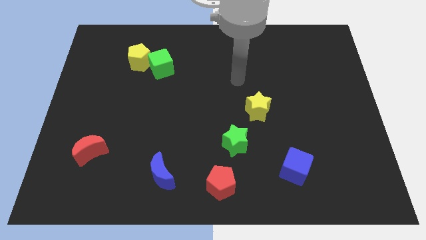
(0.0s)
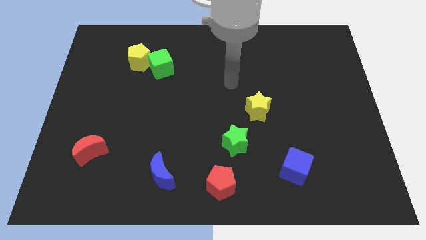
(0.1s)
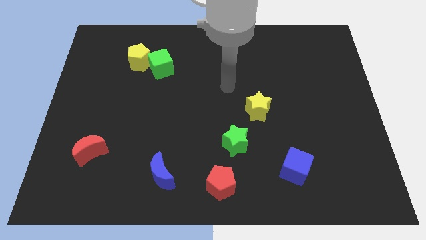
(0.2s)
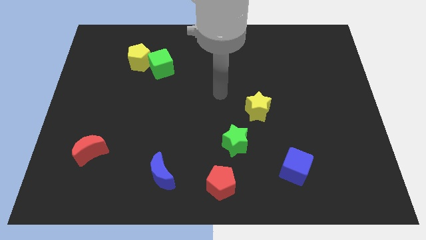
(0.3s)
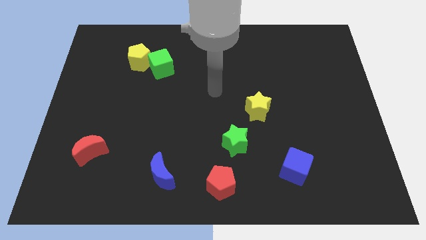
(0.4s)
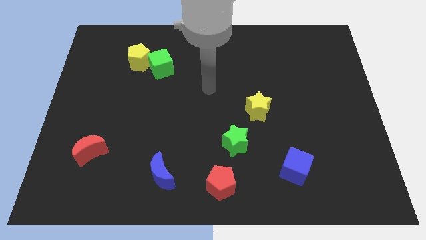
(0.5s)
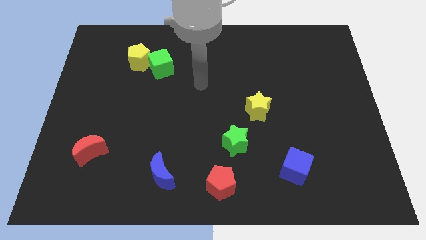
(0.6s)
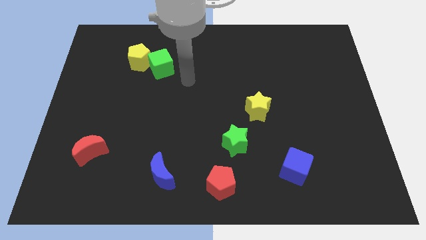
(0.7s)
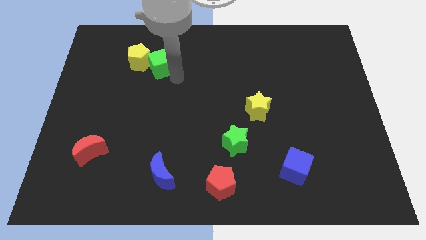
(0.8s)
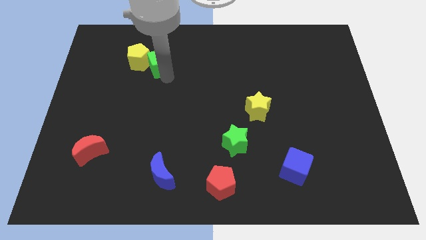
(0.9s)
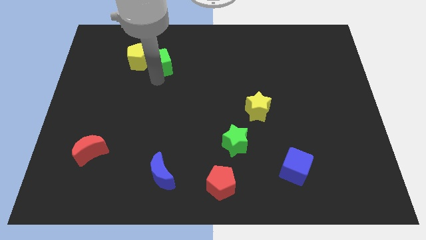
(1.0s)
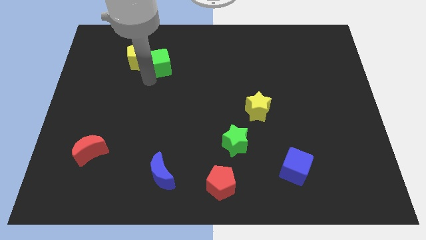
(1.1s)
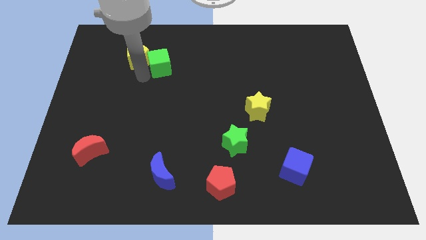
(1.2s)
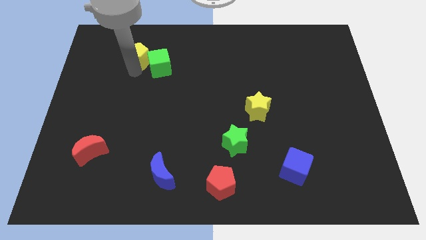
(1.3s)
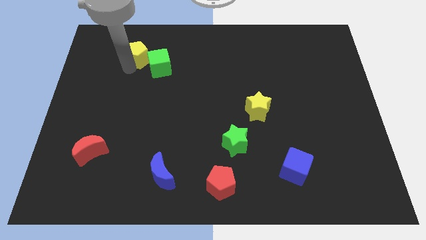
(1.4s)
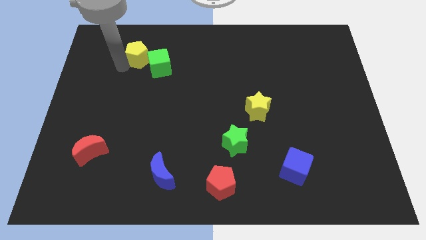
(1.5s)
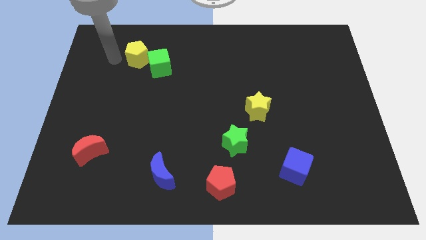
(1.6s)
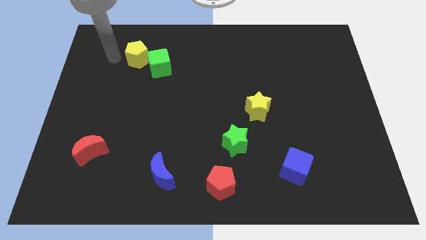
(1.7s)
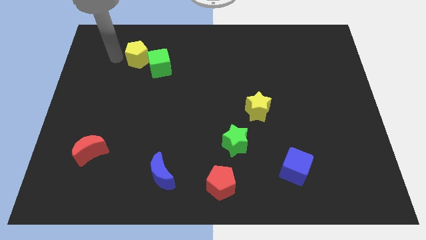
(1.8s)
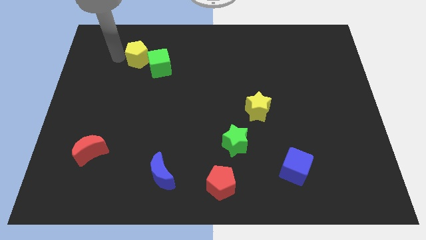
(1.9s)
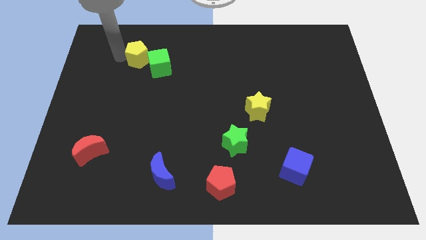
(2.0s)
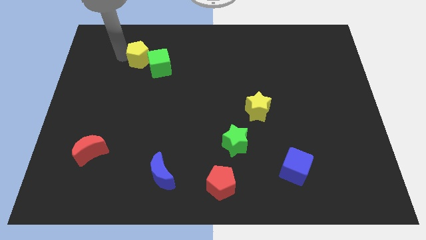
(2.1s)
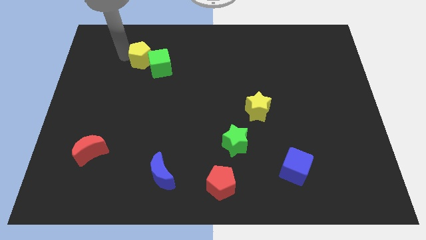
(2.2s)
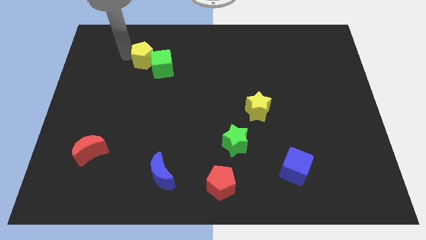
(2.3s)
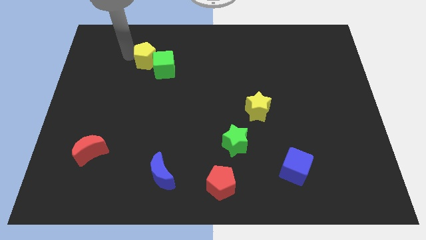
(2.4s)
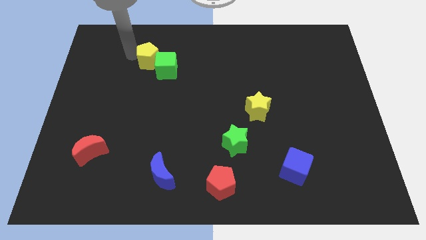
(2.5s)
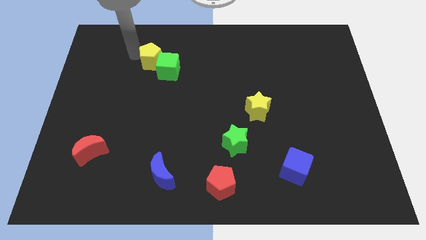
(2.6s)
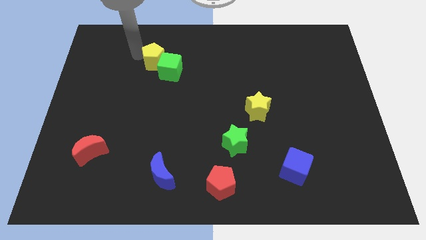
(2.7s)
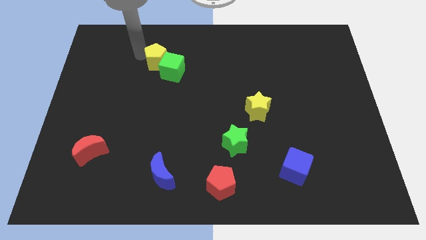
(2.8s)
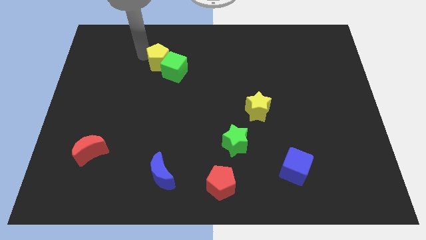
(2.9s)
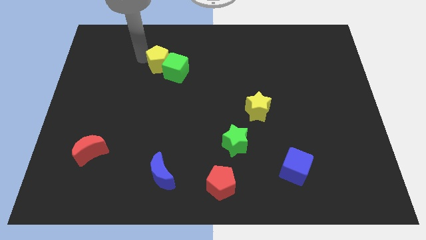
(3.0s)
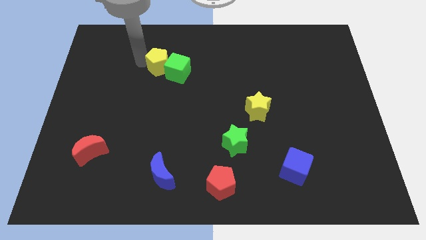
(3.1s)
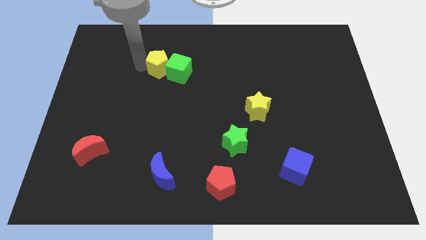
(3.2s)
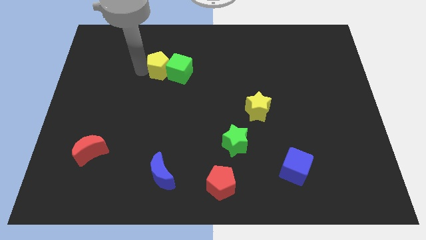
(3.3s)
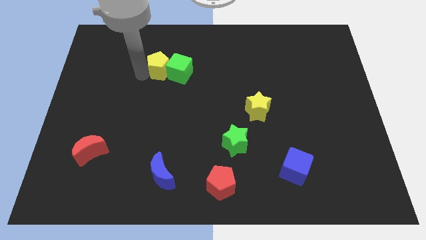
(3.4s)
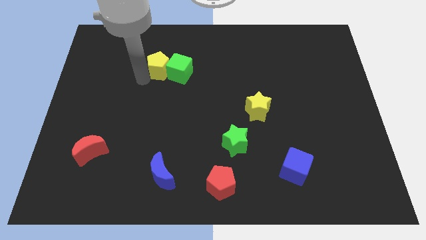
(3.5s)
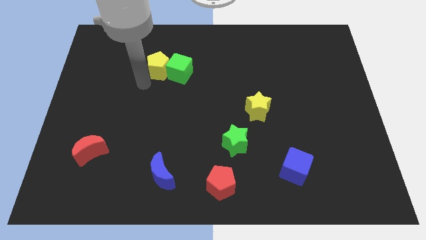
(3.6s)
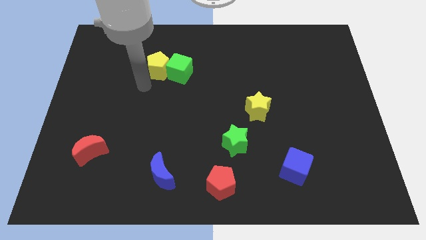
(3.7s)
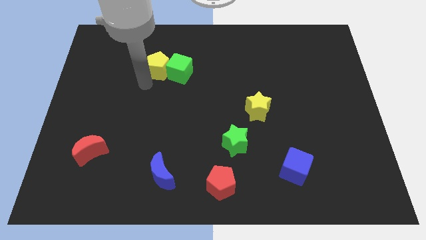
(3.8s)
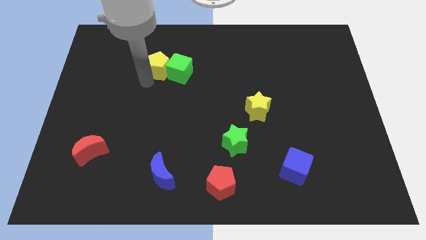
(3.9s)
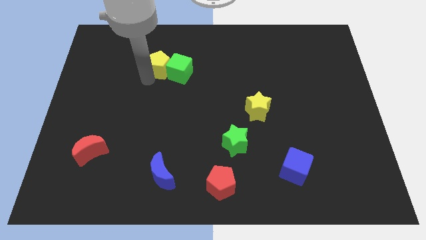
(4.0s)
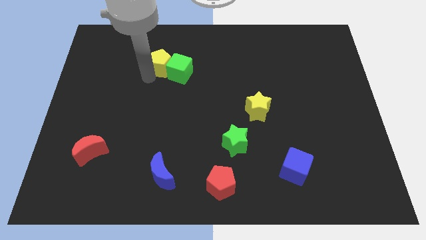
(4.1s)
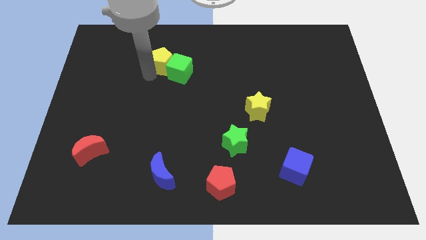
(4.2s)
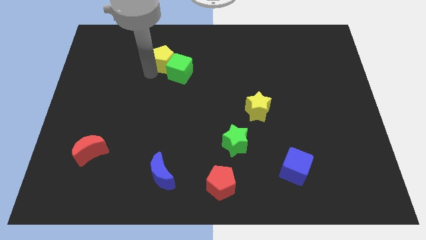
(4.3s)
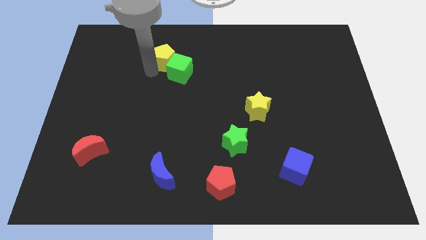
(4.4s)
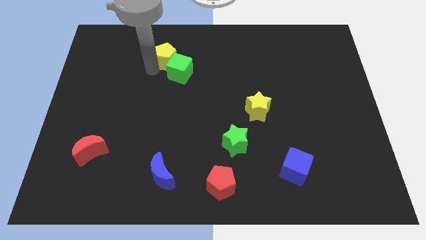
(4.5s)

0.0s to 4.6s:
move the yellow pentagon a little to the right

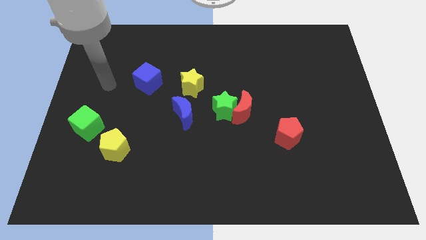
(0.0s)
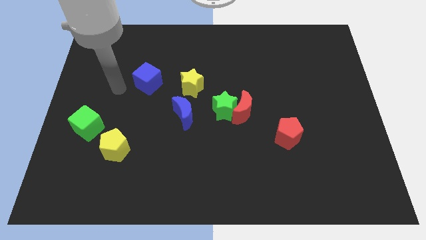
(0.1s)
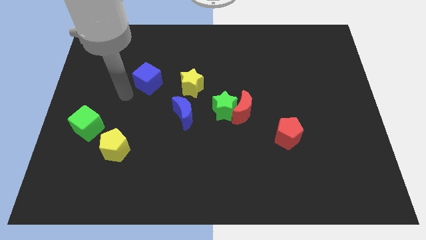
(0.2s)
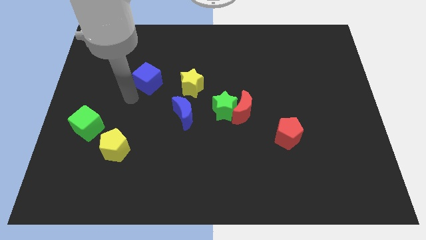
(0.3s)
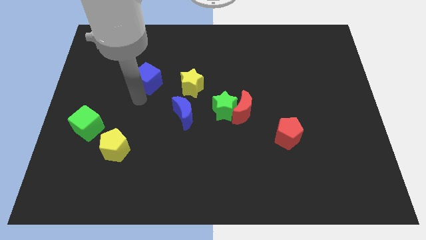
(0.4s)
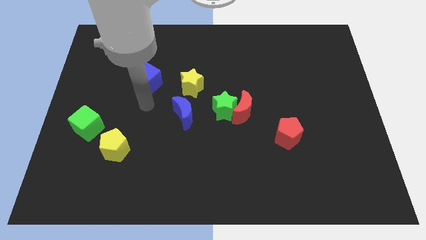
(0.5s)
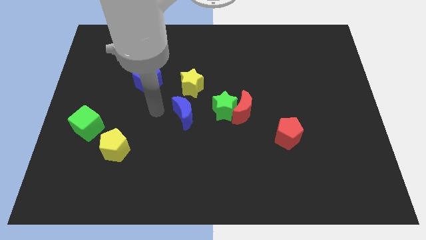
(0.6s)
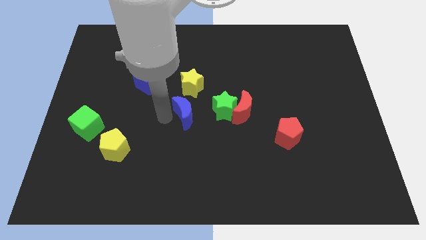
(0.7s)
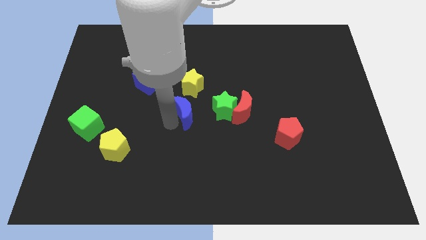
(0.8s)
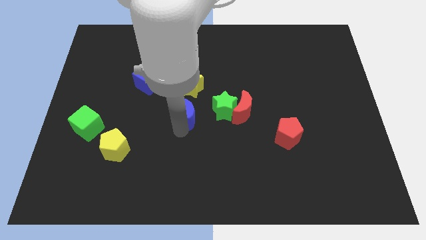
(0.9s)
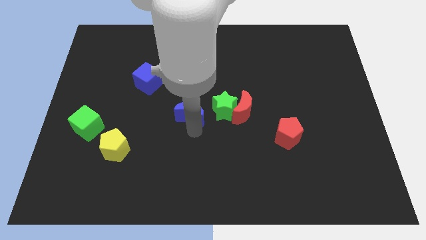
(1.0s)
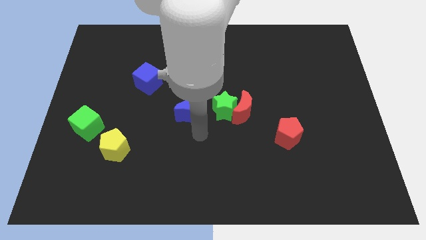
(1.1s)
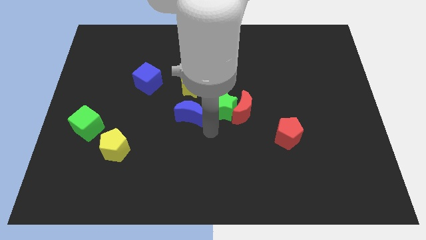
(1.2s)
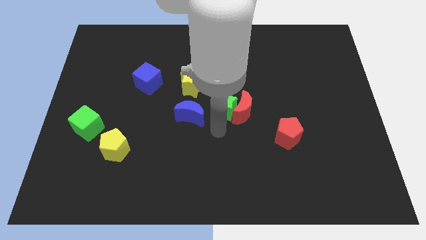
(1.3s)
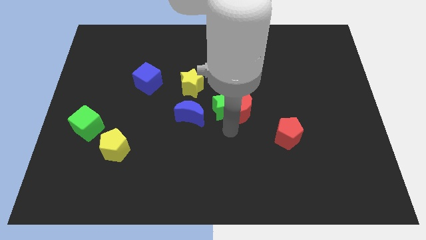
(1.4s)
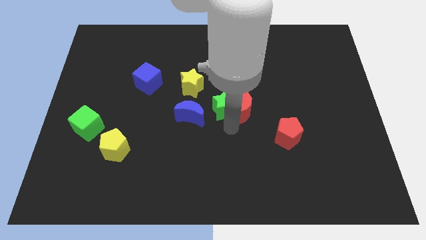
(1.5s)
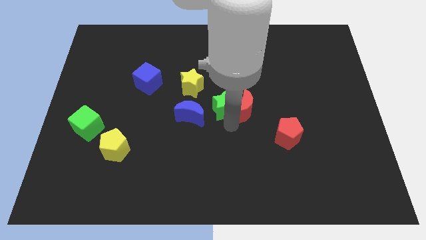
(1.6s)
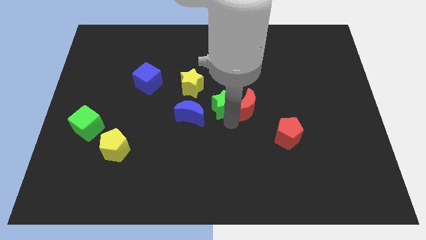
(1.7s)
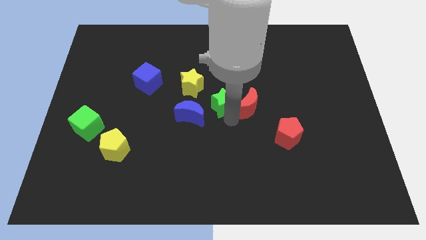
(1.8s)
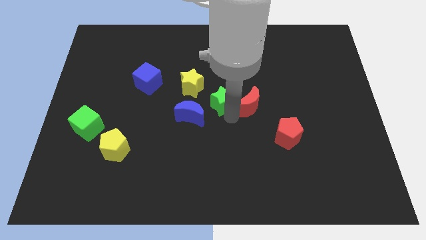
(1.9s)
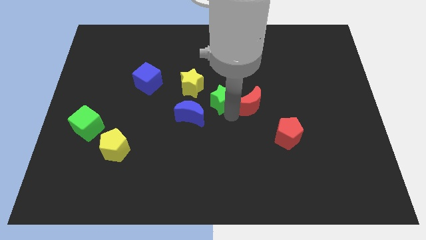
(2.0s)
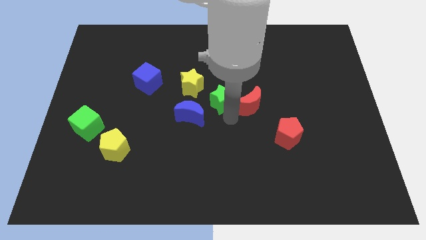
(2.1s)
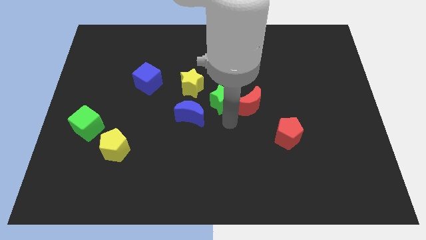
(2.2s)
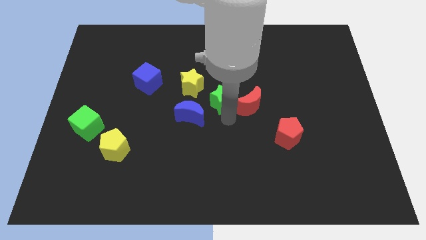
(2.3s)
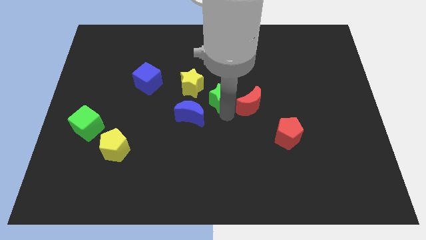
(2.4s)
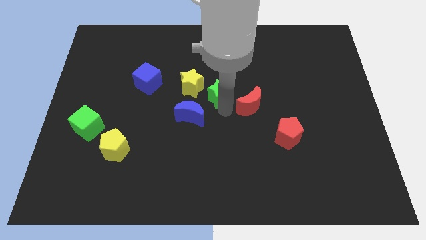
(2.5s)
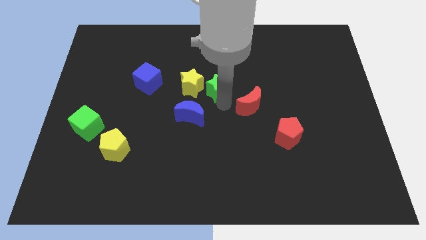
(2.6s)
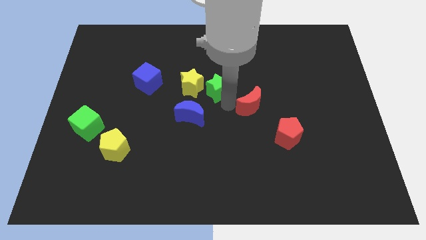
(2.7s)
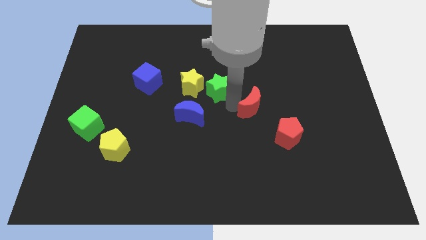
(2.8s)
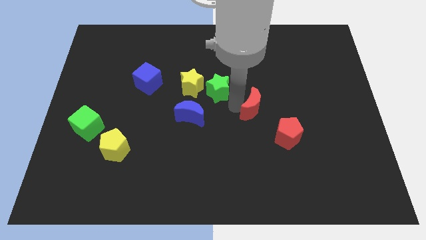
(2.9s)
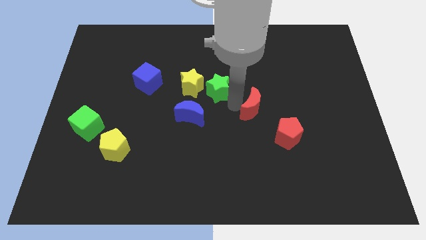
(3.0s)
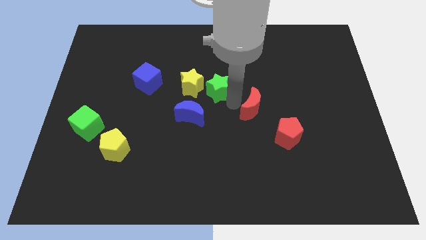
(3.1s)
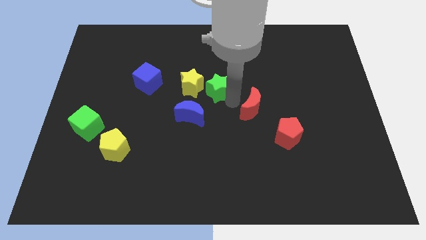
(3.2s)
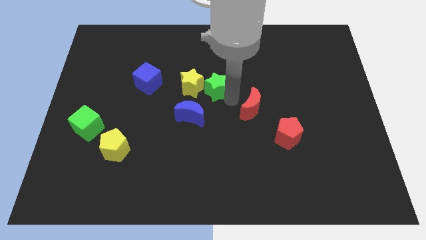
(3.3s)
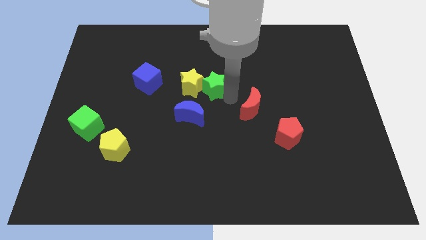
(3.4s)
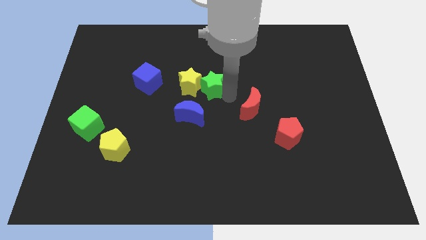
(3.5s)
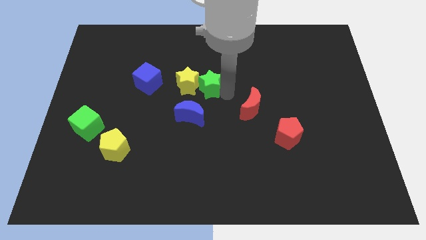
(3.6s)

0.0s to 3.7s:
slightly push the green star upwards and then left
